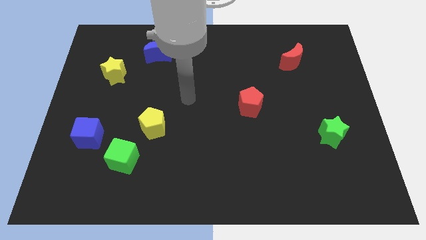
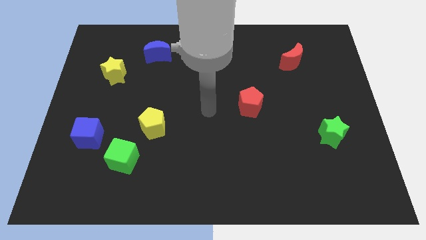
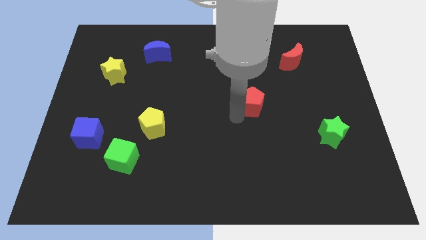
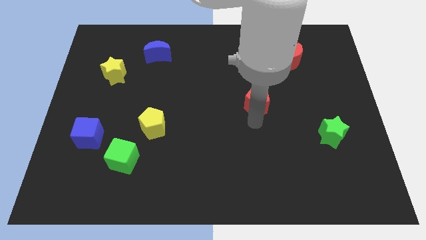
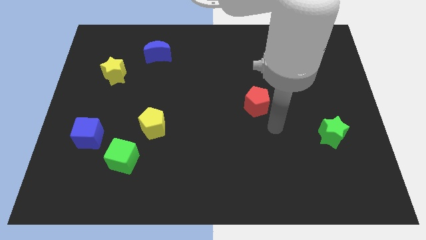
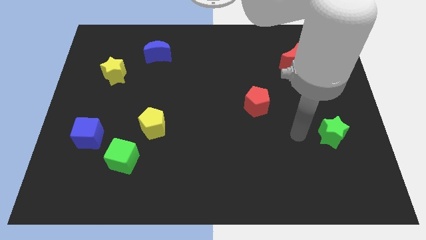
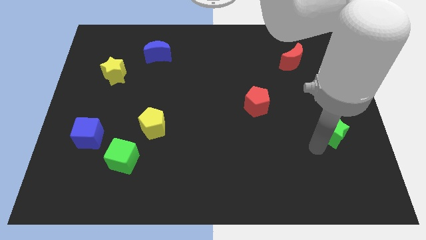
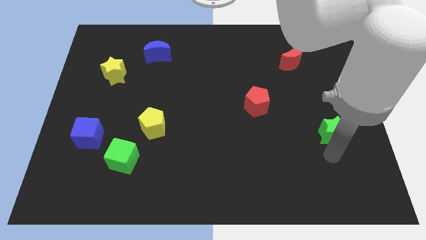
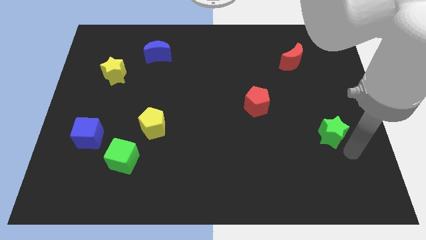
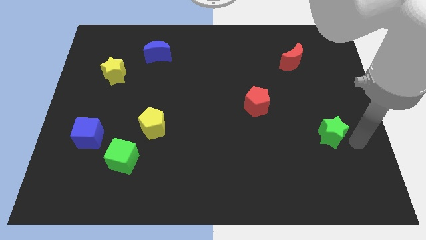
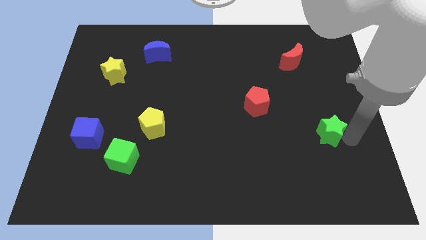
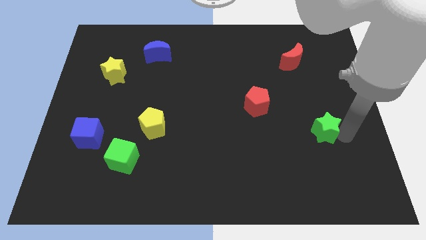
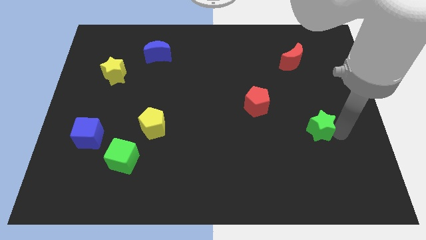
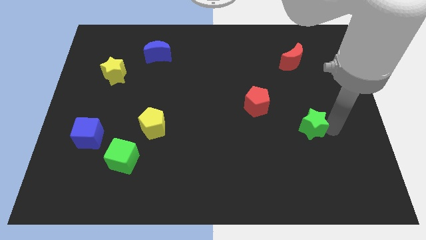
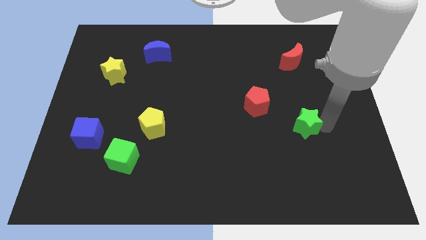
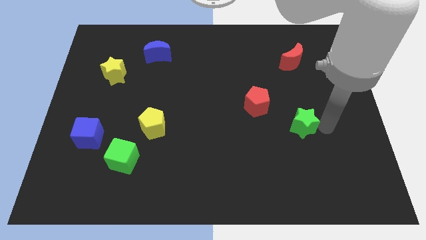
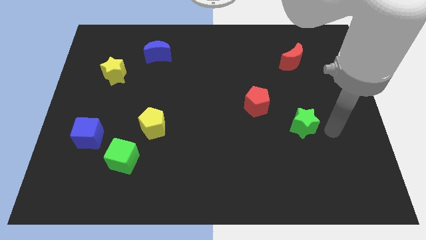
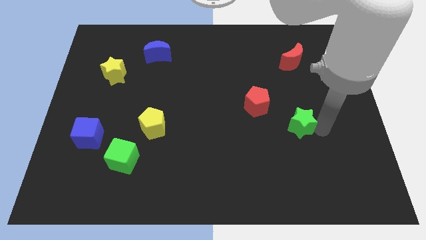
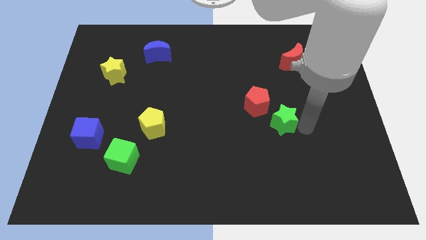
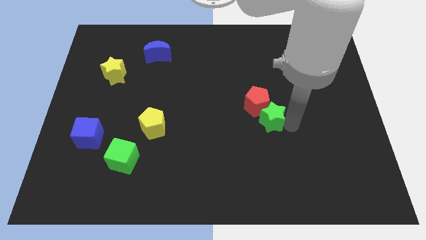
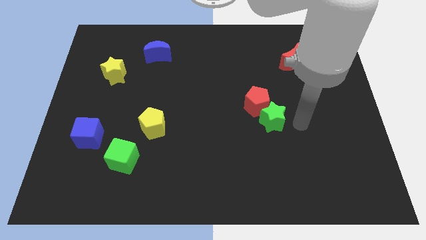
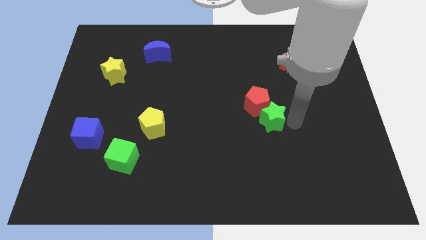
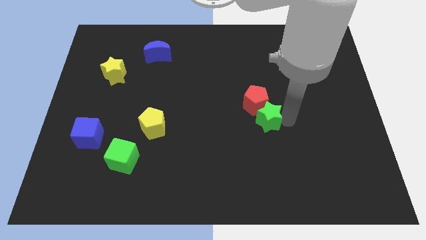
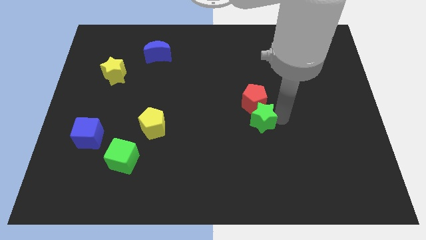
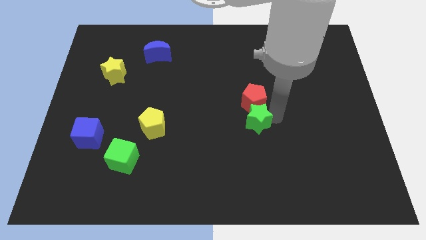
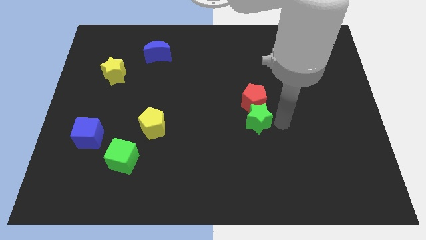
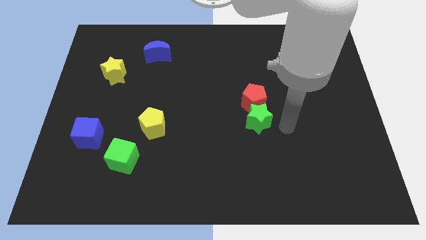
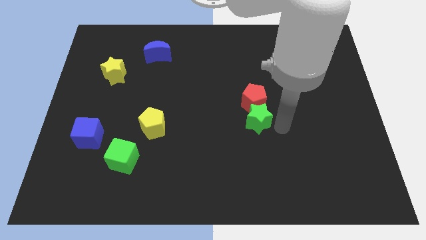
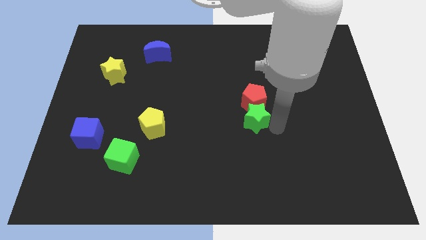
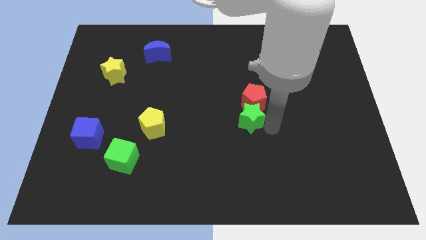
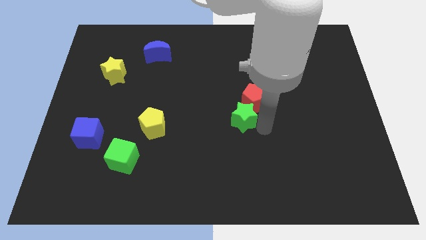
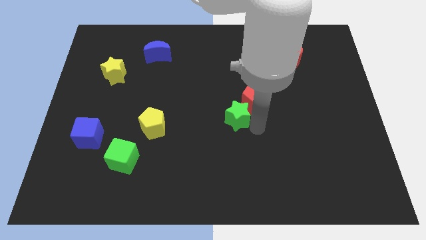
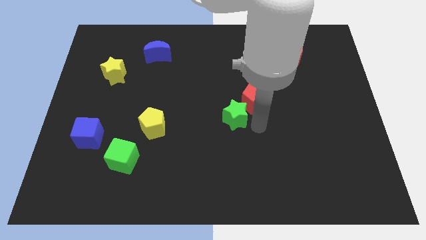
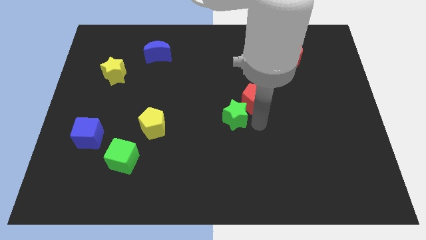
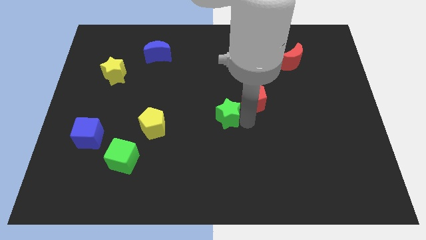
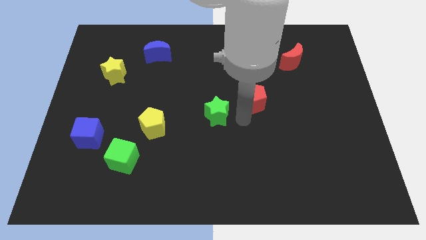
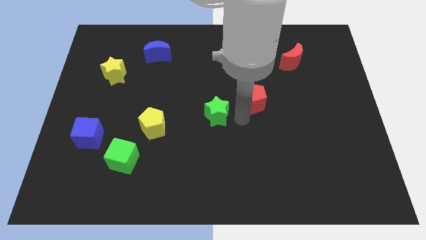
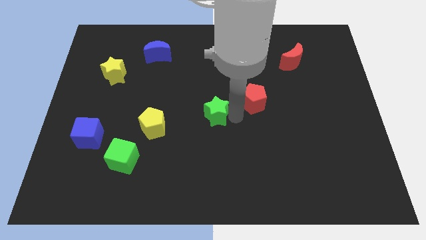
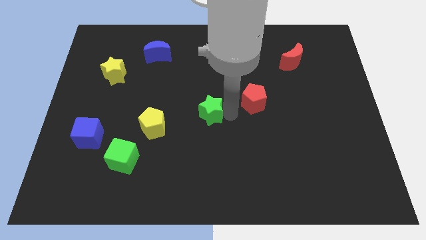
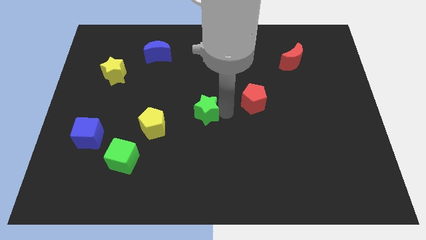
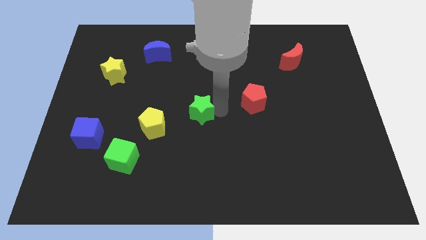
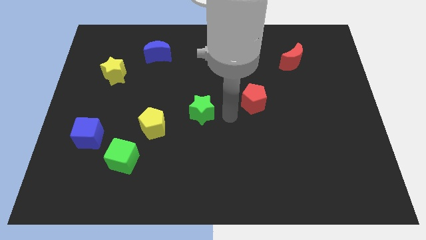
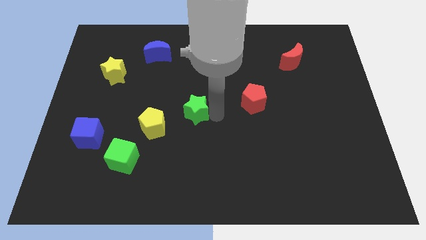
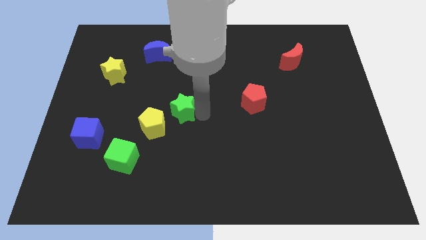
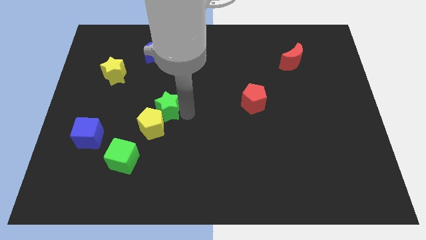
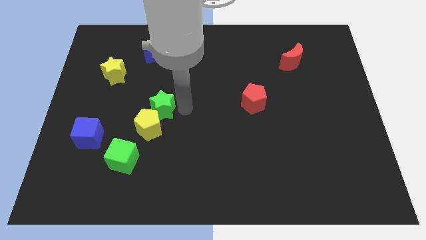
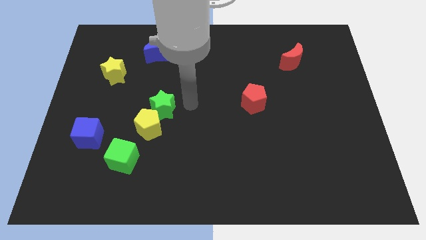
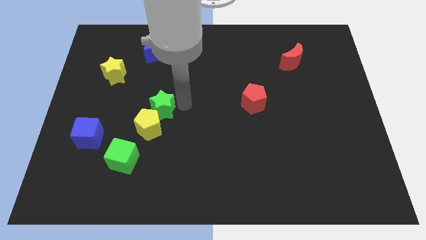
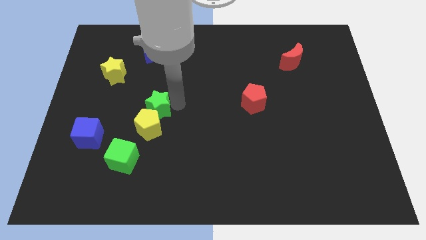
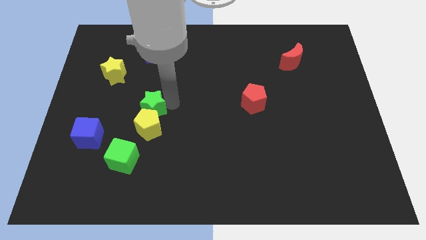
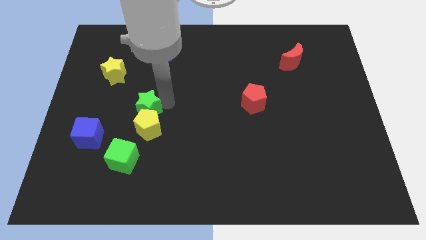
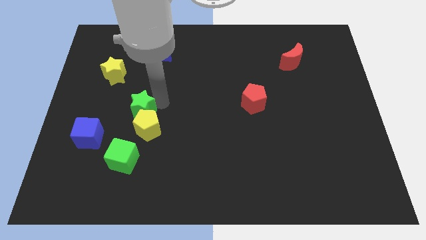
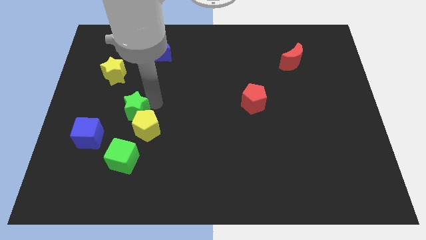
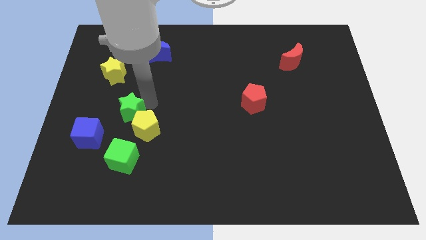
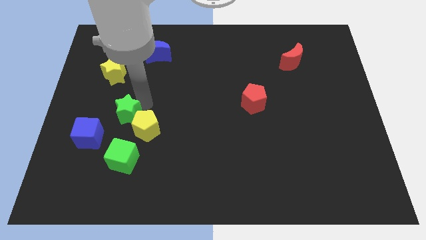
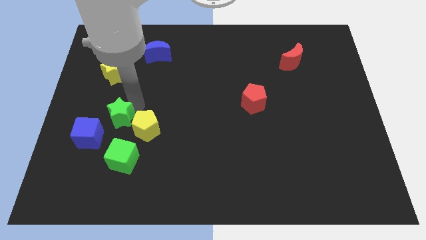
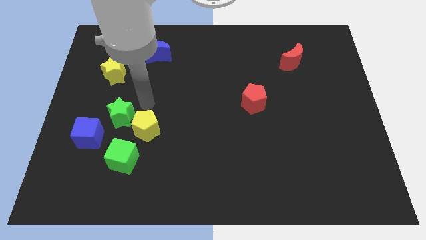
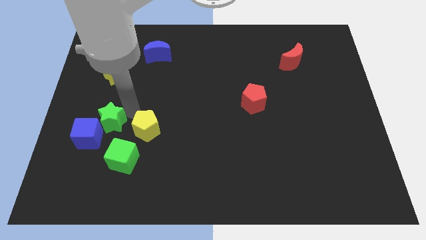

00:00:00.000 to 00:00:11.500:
push the green star next to the blue cube

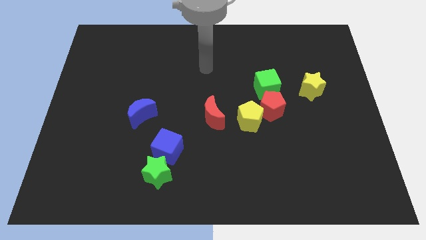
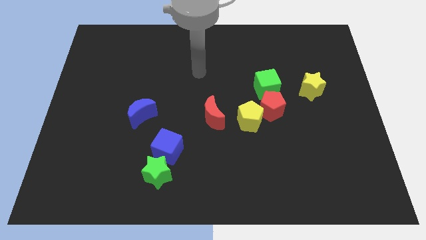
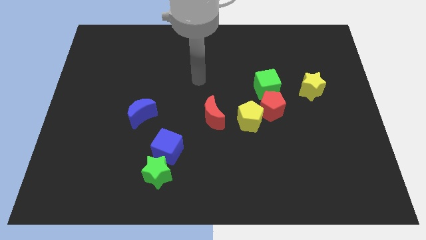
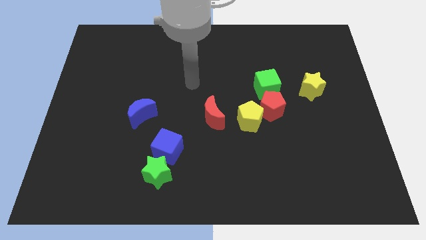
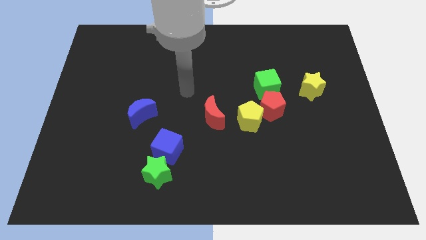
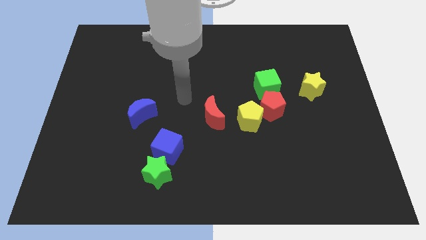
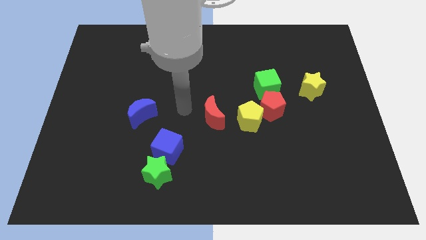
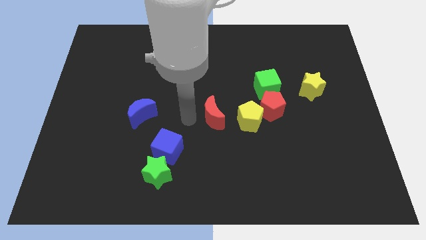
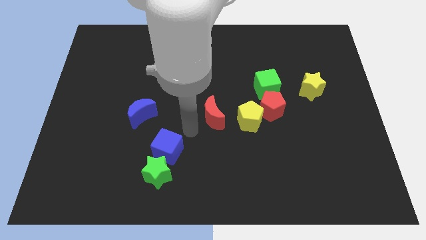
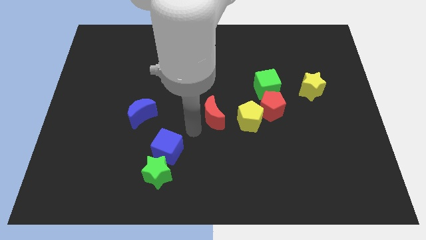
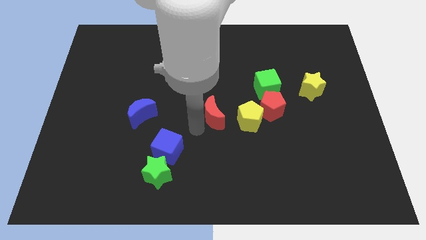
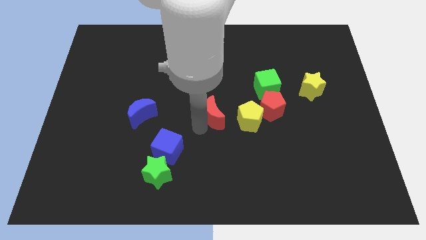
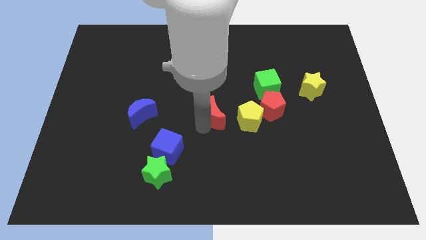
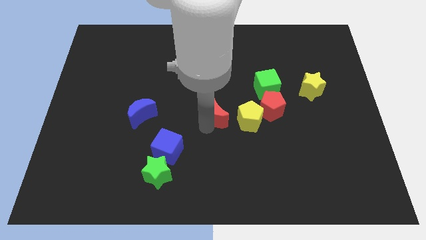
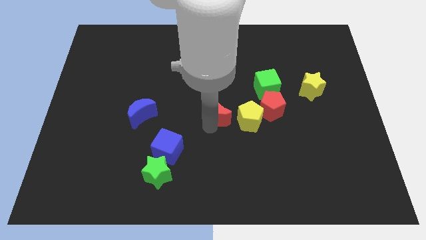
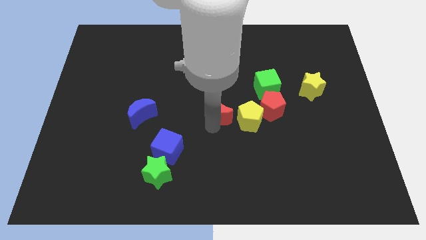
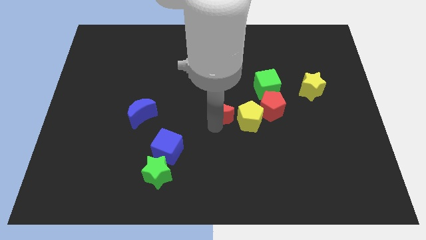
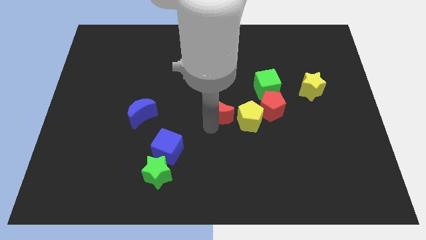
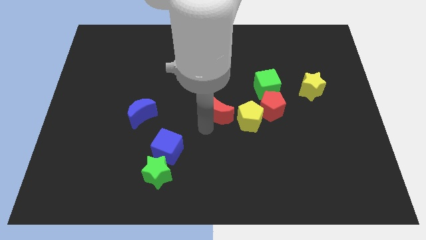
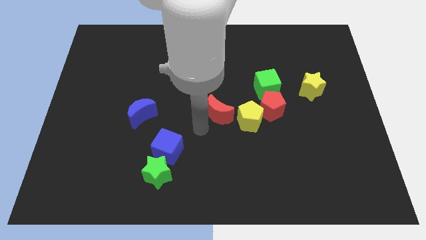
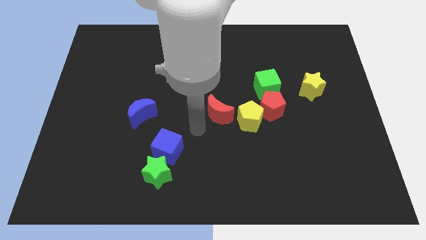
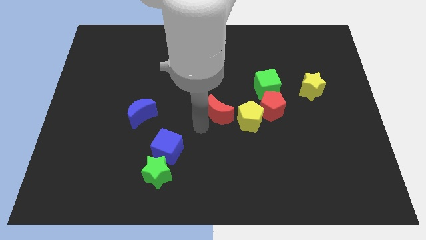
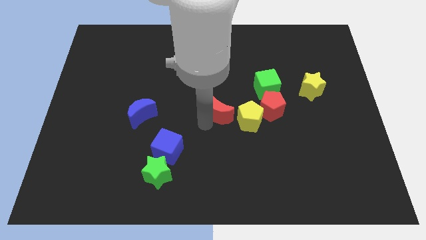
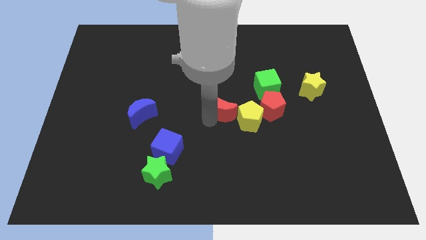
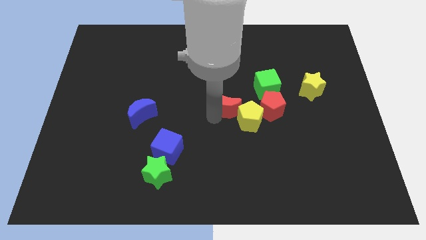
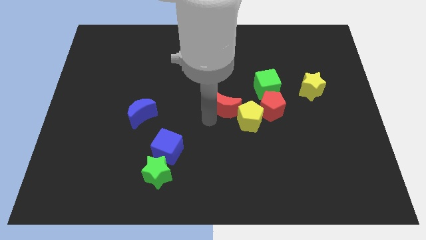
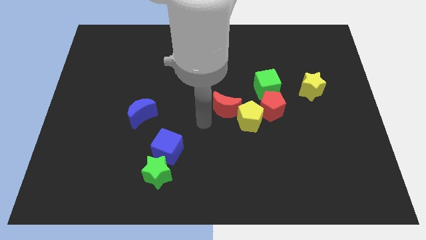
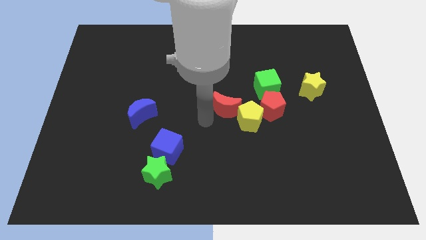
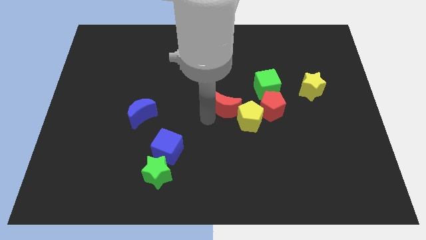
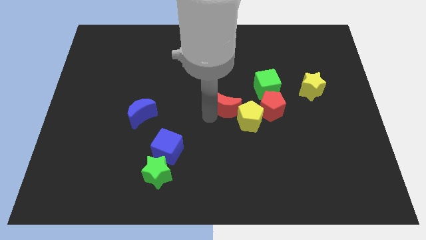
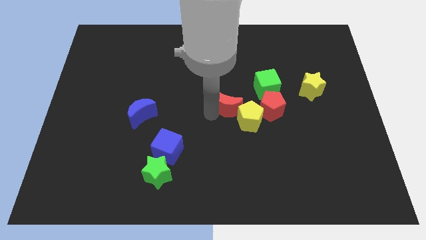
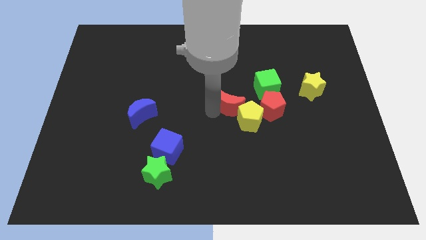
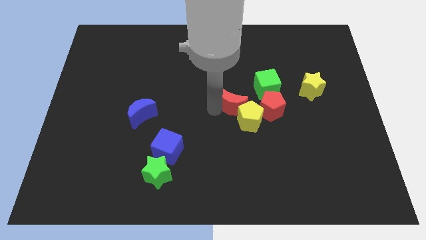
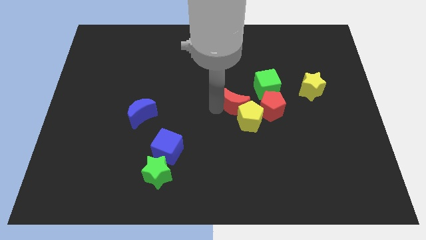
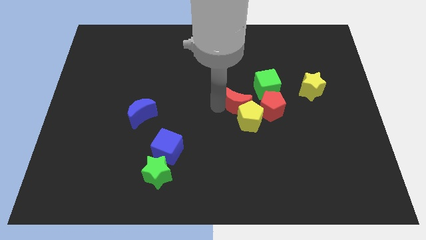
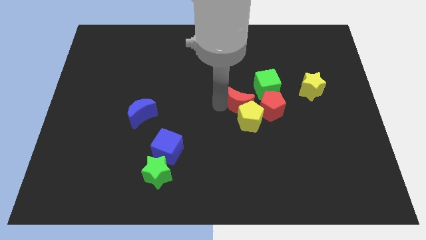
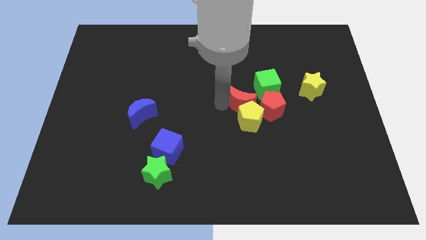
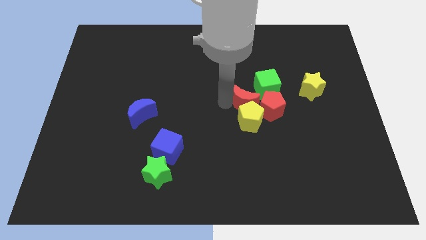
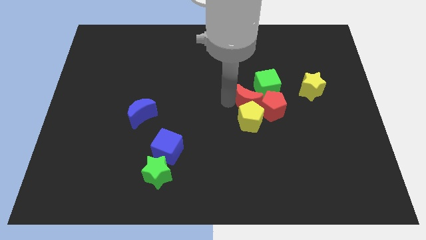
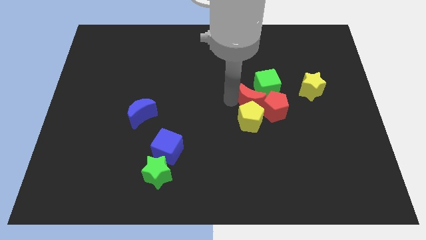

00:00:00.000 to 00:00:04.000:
put the red moon next to the green cube
